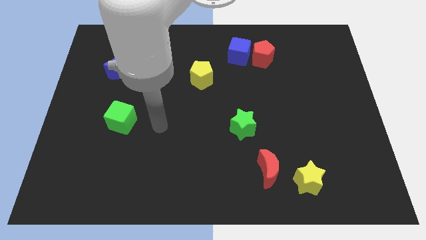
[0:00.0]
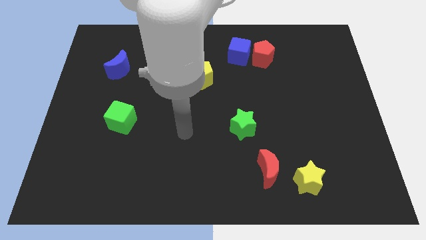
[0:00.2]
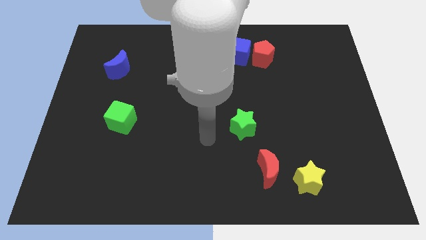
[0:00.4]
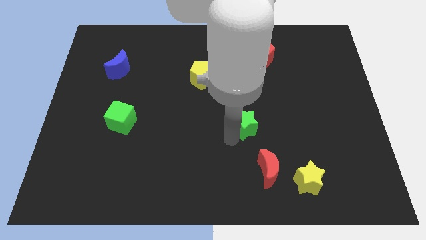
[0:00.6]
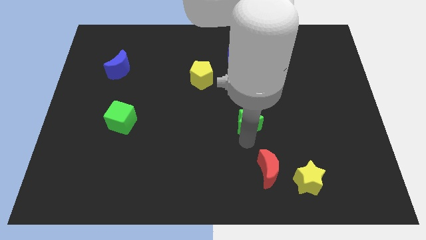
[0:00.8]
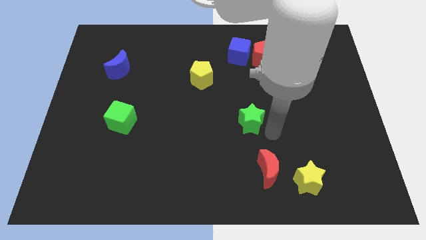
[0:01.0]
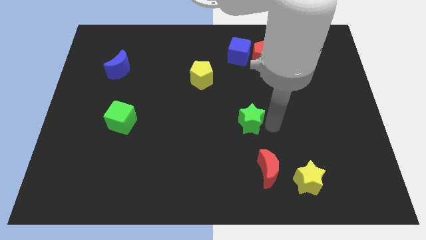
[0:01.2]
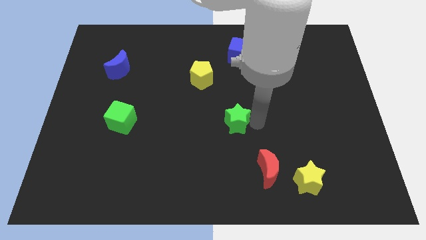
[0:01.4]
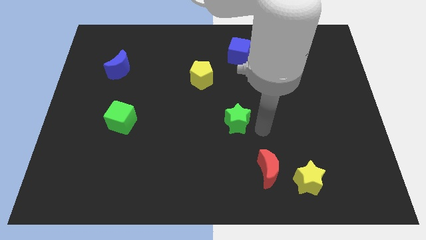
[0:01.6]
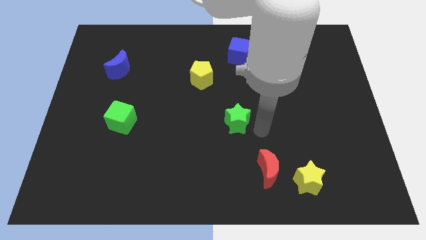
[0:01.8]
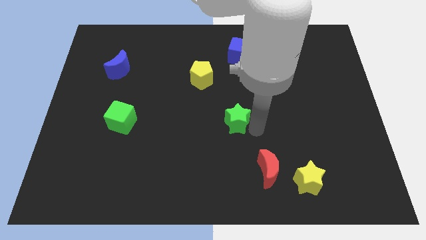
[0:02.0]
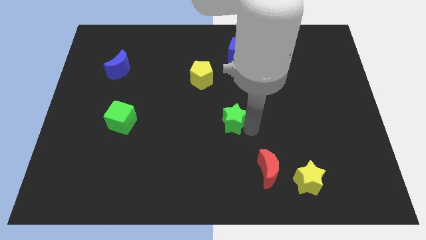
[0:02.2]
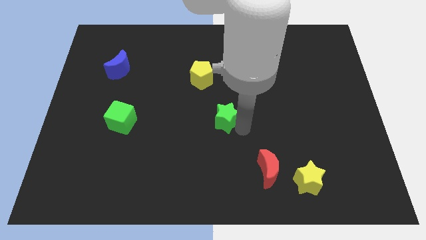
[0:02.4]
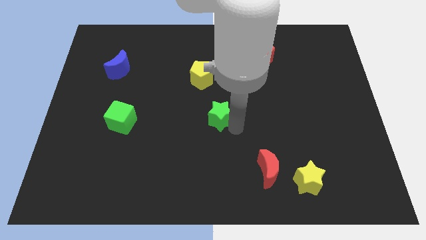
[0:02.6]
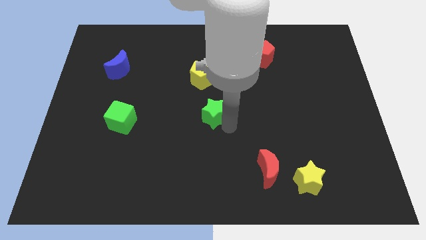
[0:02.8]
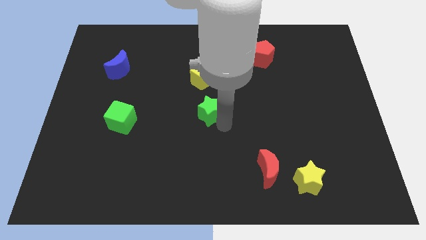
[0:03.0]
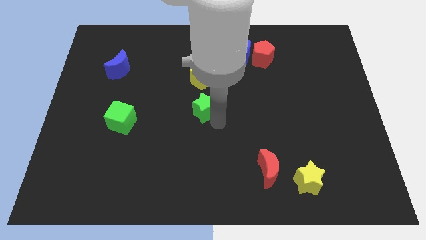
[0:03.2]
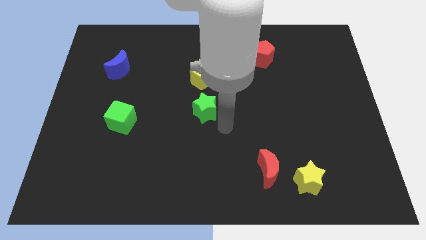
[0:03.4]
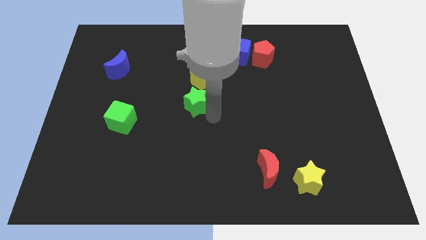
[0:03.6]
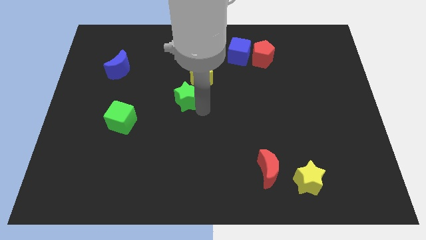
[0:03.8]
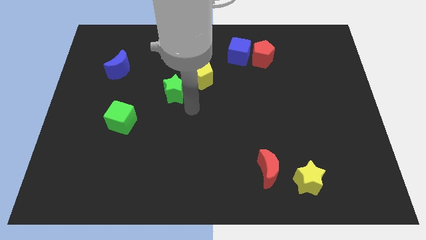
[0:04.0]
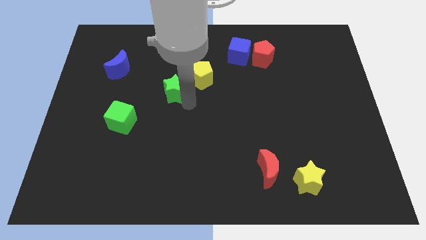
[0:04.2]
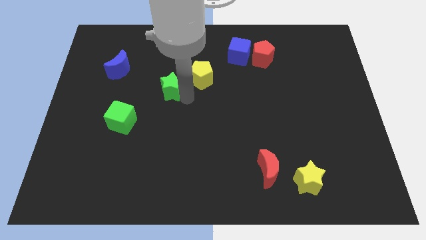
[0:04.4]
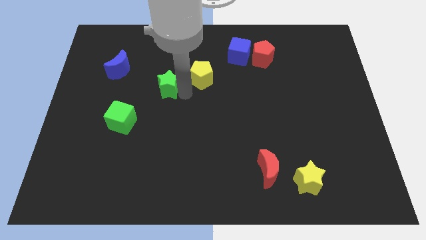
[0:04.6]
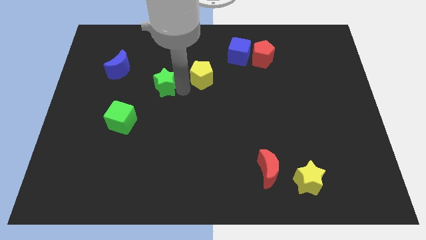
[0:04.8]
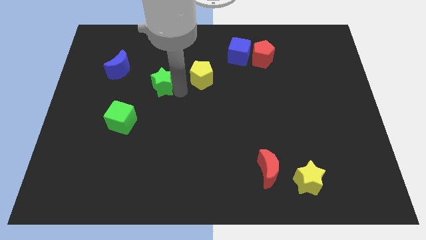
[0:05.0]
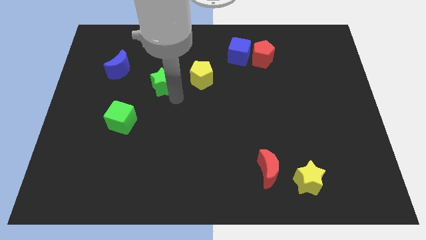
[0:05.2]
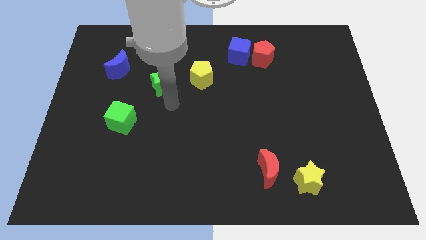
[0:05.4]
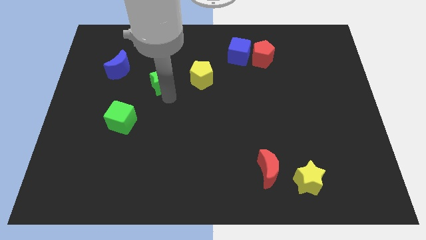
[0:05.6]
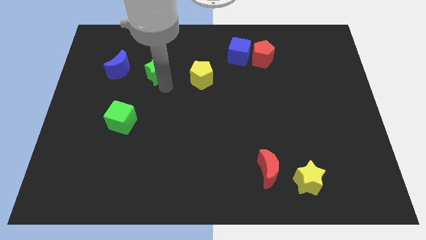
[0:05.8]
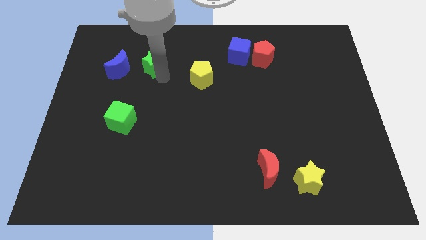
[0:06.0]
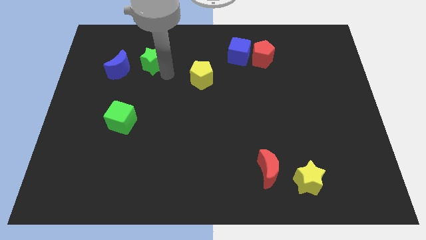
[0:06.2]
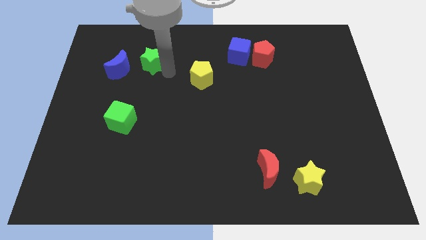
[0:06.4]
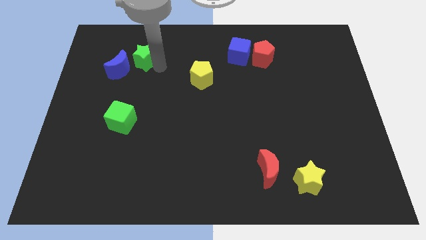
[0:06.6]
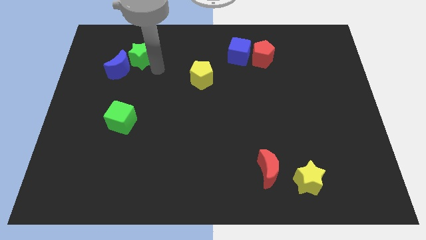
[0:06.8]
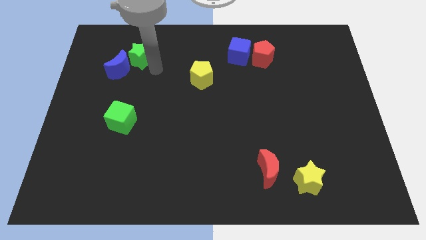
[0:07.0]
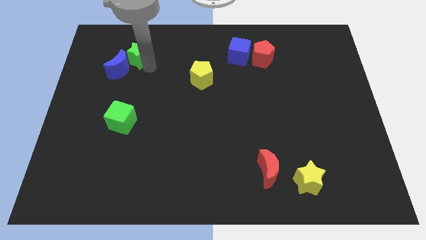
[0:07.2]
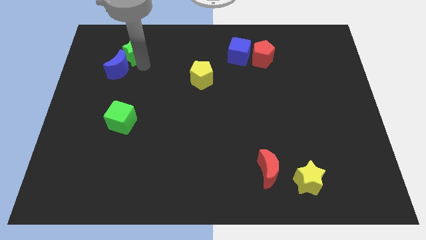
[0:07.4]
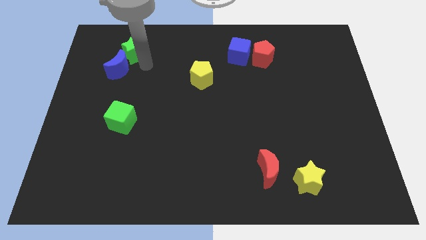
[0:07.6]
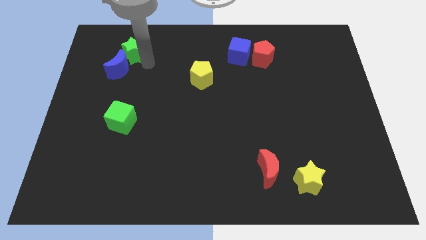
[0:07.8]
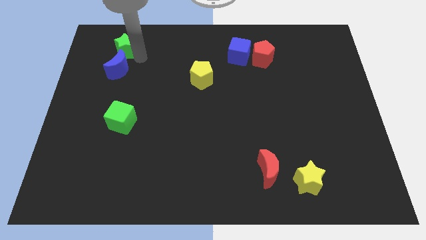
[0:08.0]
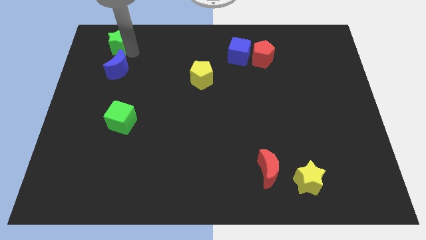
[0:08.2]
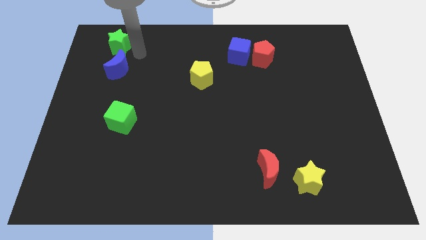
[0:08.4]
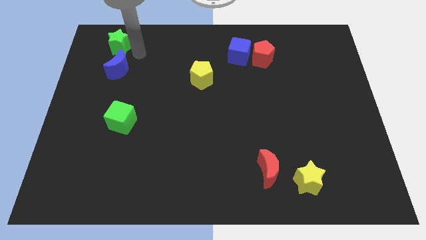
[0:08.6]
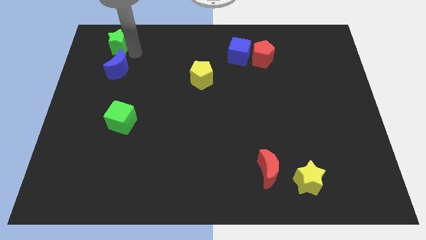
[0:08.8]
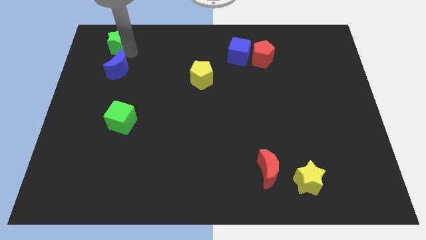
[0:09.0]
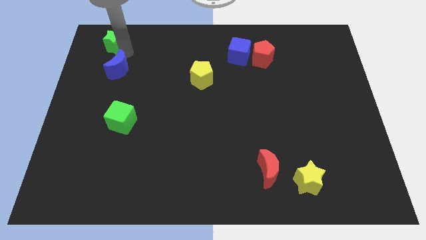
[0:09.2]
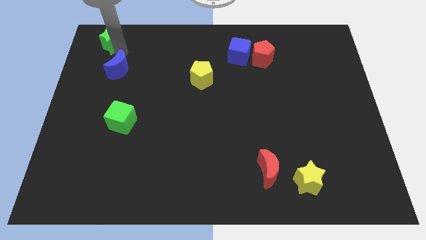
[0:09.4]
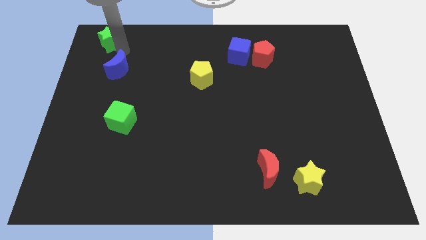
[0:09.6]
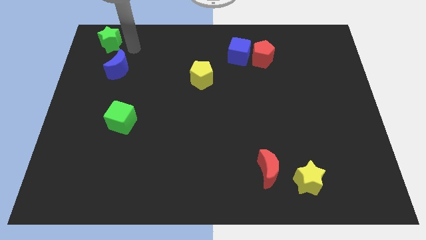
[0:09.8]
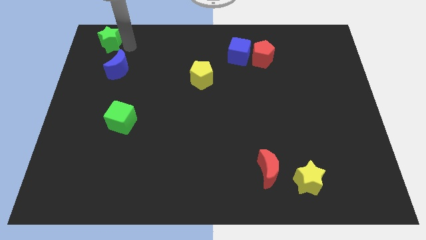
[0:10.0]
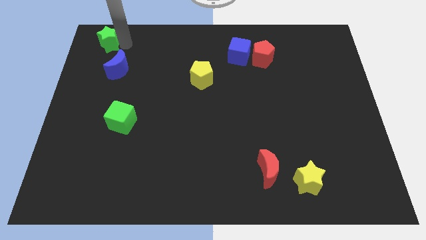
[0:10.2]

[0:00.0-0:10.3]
put the green star to the top left corner

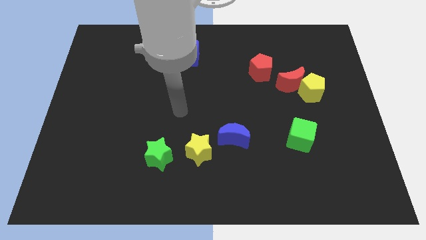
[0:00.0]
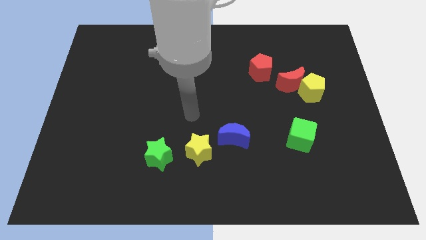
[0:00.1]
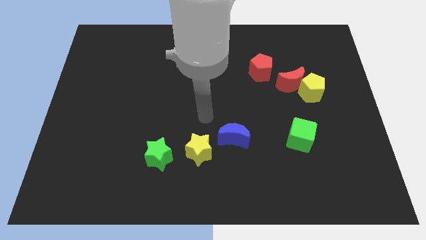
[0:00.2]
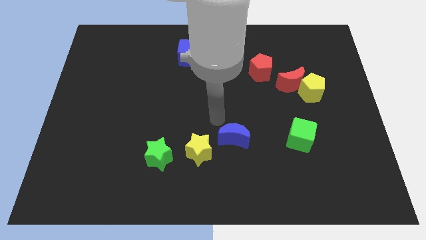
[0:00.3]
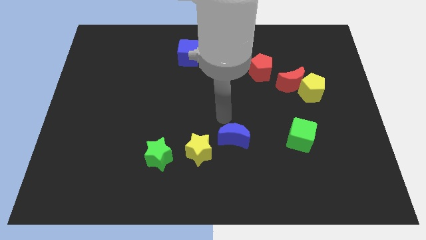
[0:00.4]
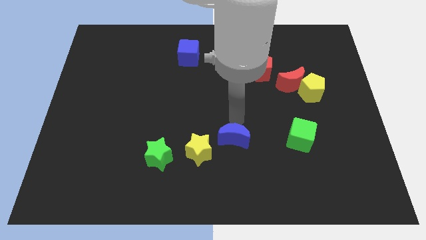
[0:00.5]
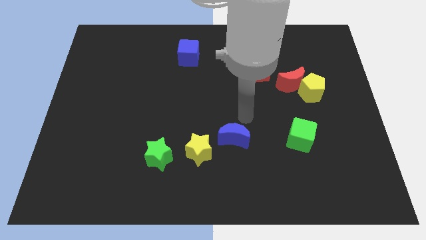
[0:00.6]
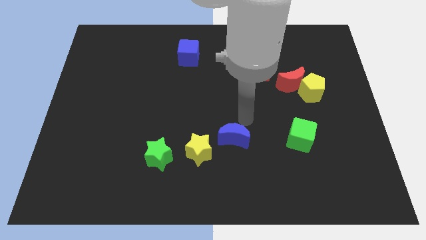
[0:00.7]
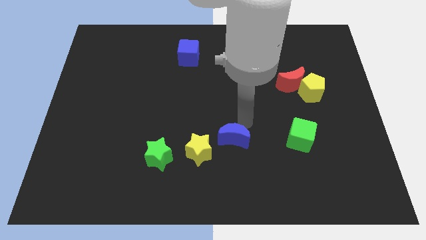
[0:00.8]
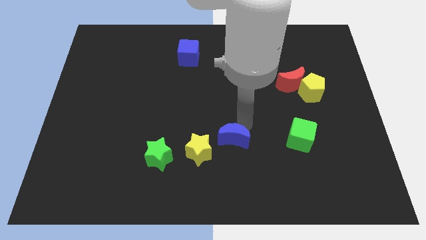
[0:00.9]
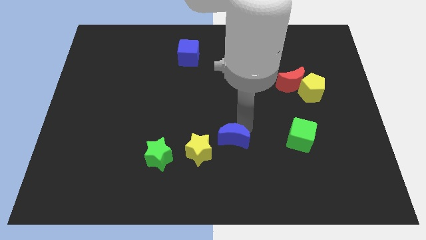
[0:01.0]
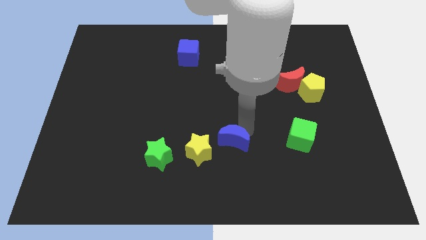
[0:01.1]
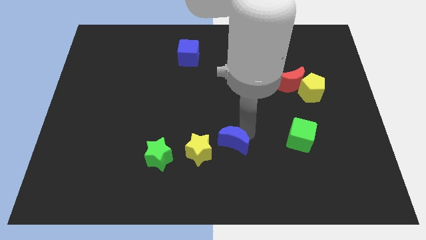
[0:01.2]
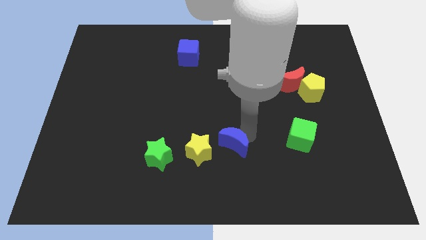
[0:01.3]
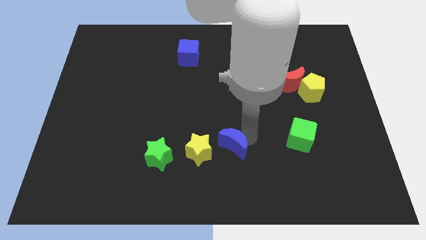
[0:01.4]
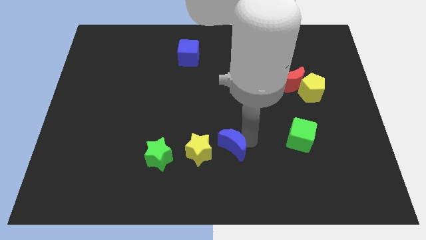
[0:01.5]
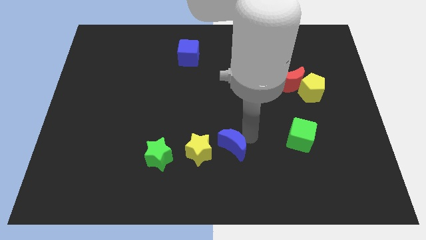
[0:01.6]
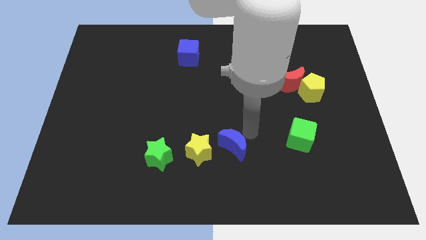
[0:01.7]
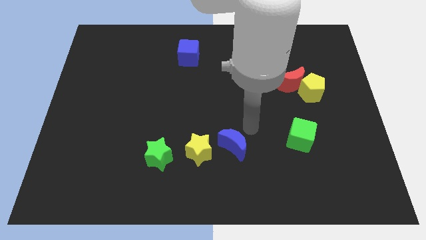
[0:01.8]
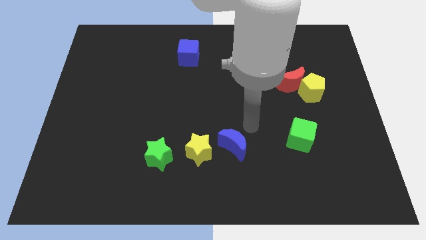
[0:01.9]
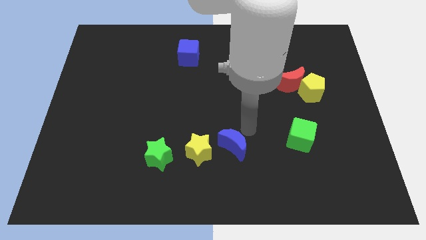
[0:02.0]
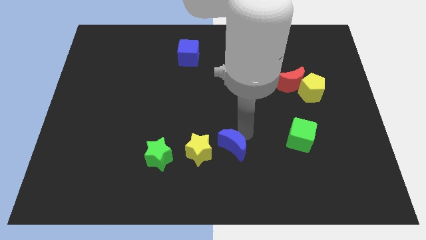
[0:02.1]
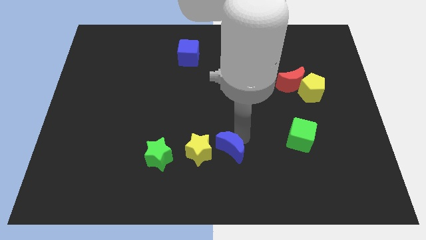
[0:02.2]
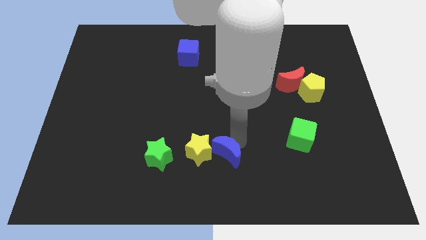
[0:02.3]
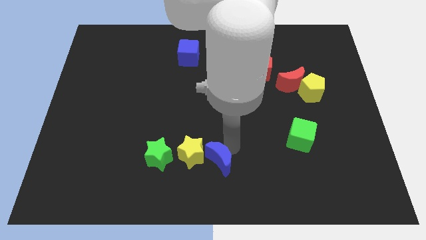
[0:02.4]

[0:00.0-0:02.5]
push the blue moon to the bottom side
